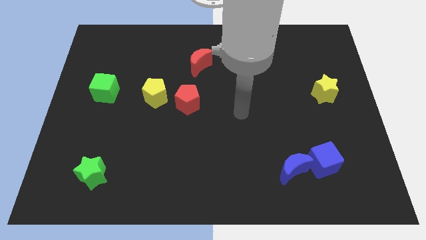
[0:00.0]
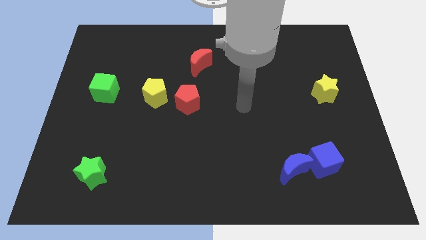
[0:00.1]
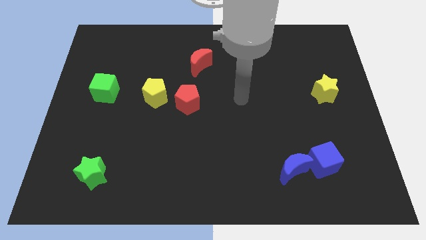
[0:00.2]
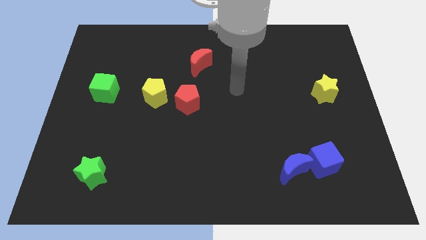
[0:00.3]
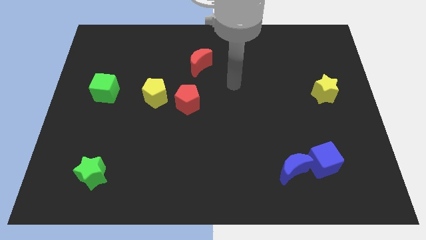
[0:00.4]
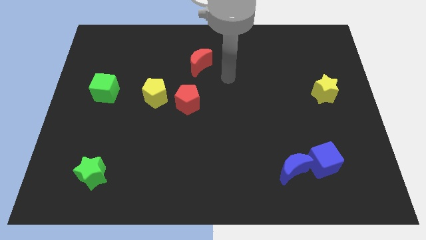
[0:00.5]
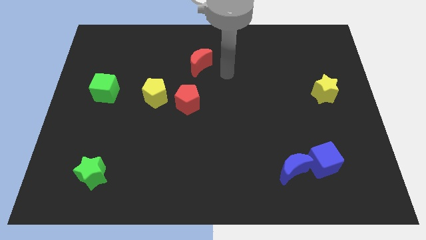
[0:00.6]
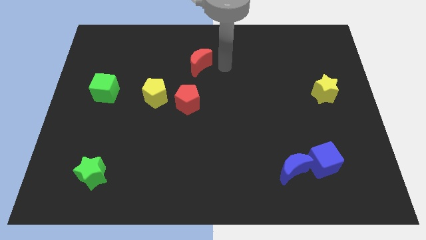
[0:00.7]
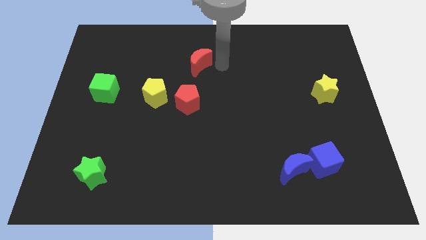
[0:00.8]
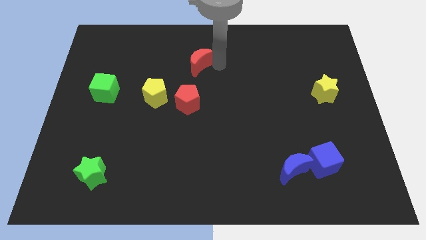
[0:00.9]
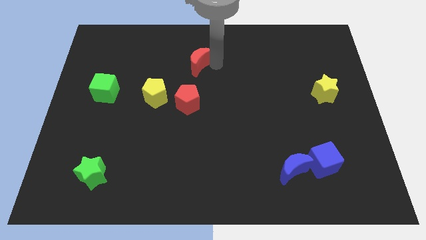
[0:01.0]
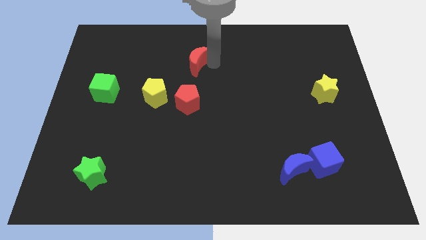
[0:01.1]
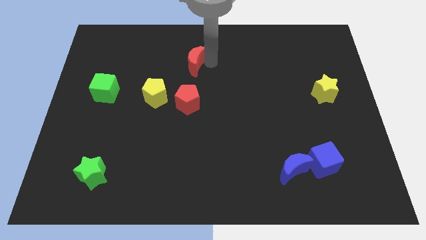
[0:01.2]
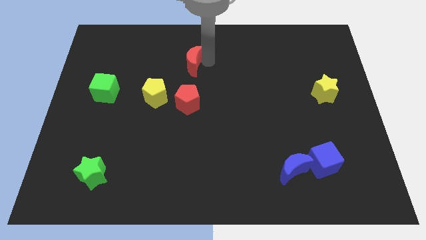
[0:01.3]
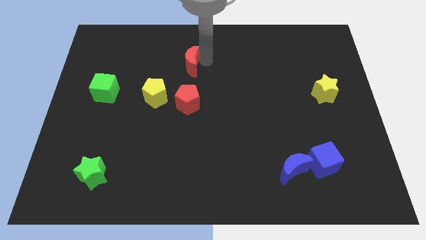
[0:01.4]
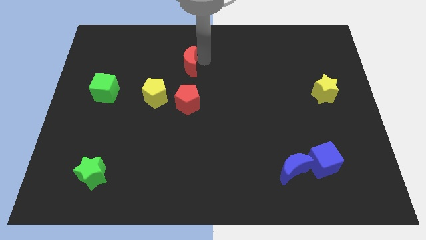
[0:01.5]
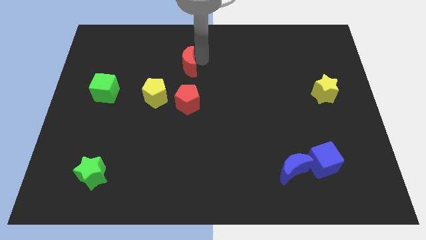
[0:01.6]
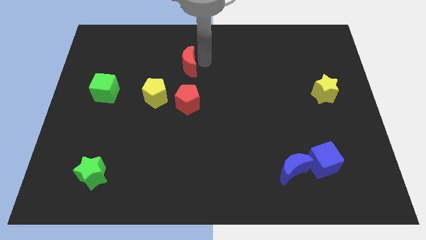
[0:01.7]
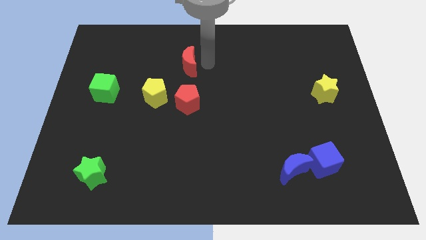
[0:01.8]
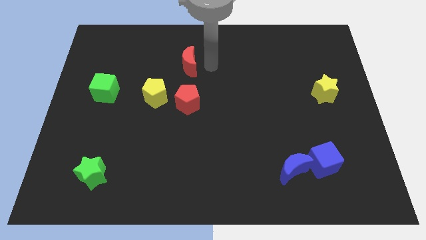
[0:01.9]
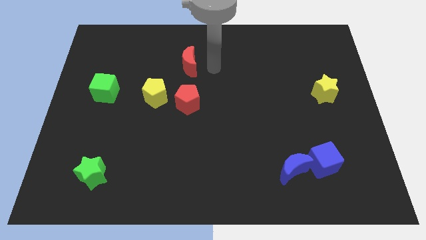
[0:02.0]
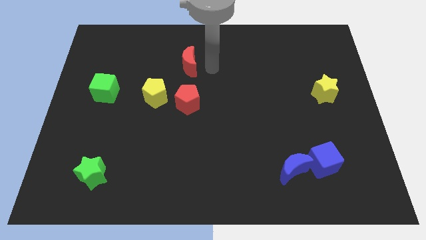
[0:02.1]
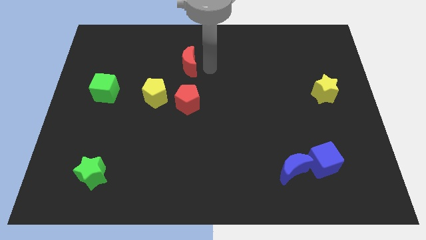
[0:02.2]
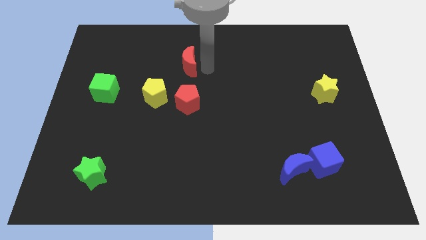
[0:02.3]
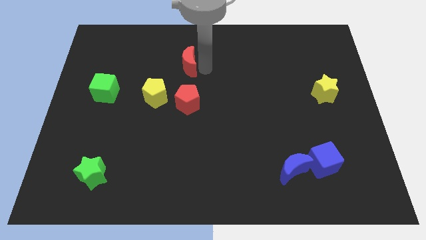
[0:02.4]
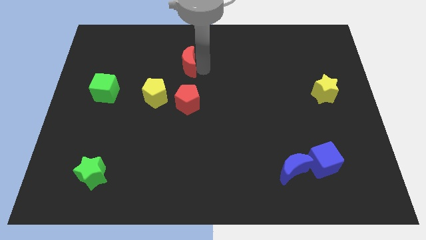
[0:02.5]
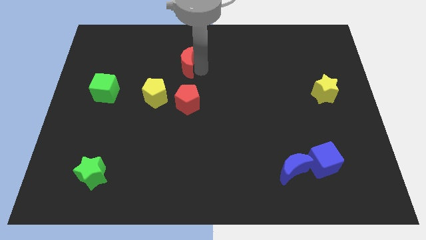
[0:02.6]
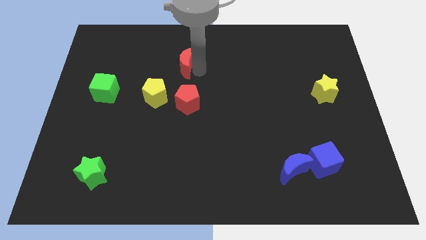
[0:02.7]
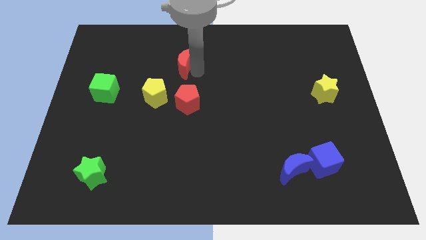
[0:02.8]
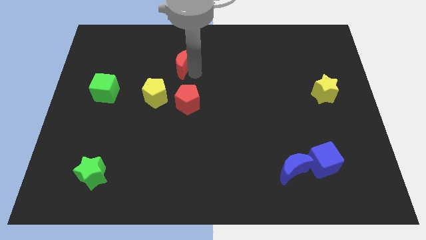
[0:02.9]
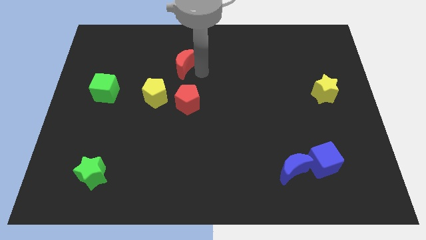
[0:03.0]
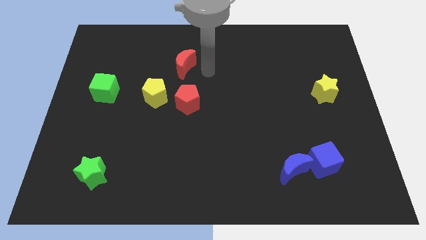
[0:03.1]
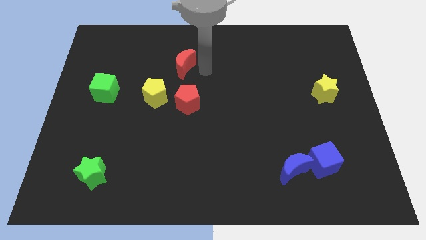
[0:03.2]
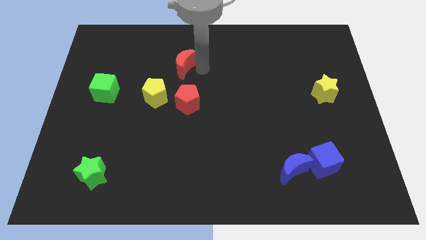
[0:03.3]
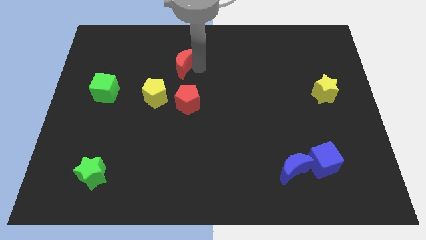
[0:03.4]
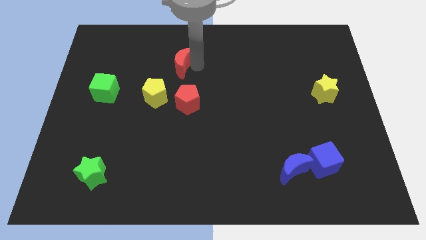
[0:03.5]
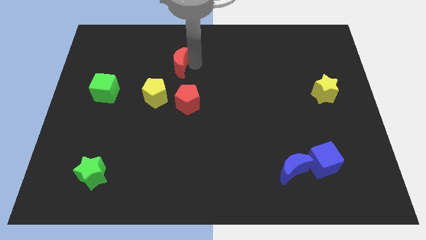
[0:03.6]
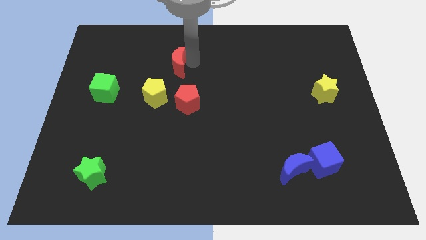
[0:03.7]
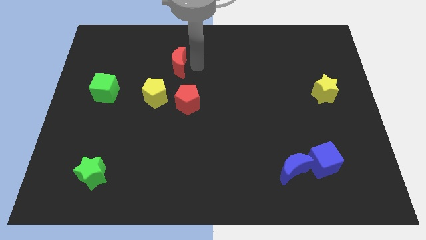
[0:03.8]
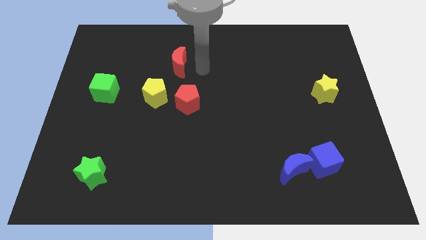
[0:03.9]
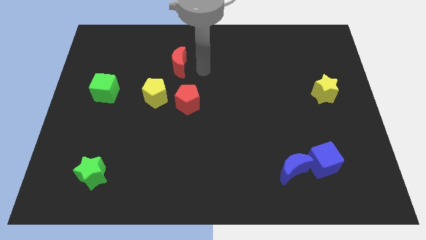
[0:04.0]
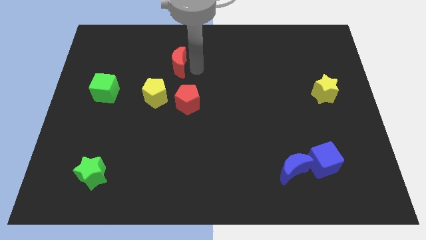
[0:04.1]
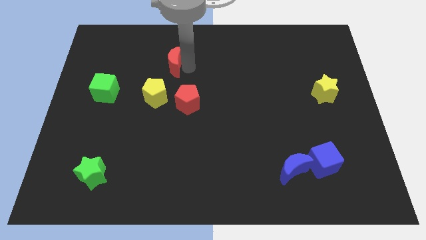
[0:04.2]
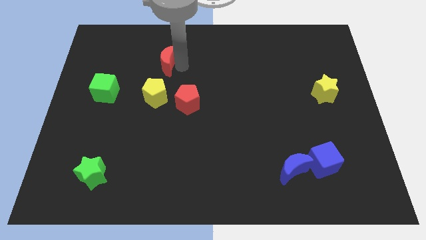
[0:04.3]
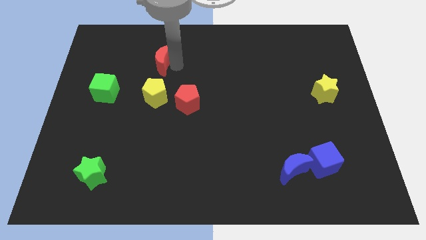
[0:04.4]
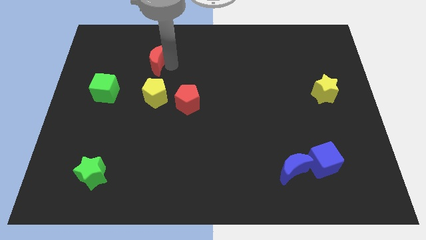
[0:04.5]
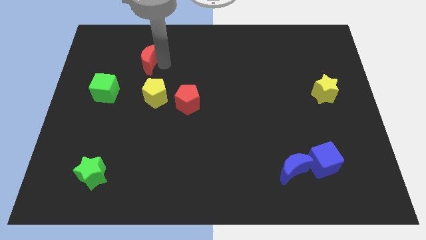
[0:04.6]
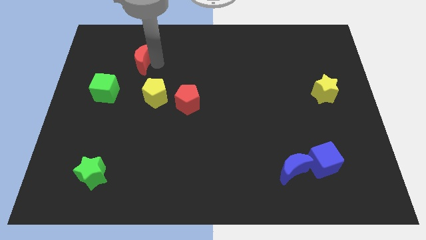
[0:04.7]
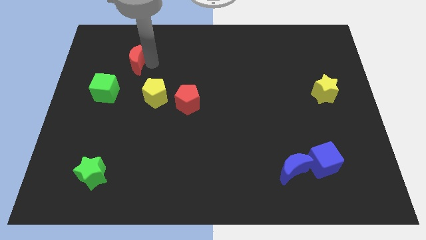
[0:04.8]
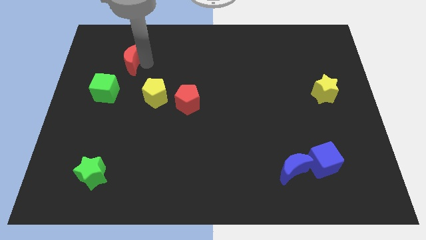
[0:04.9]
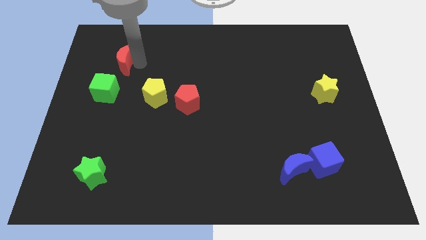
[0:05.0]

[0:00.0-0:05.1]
put the red moon above the green cube

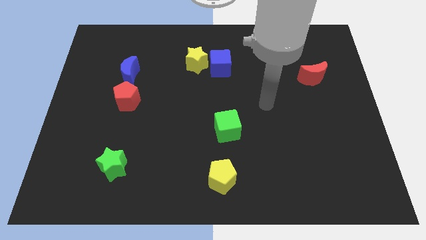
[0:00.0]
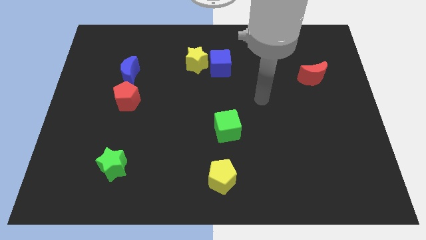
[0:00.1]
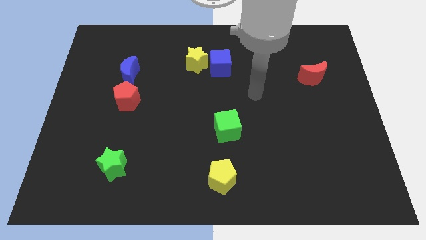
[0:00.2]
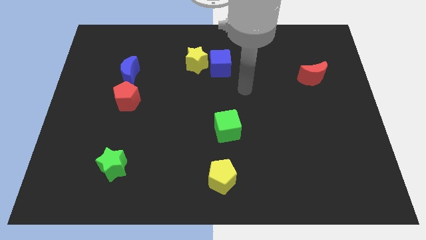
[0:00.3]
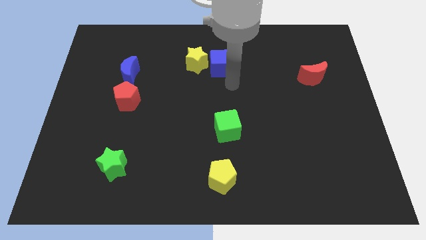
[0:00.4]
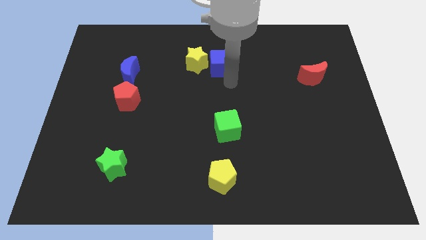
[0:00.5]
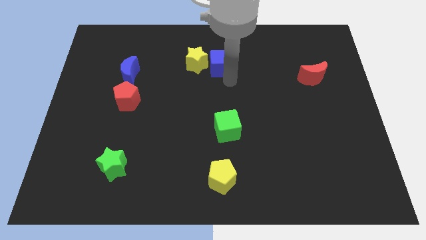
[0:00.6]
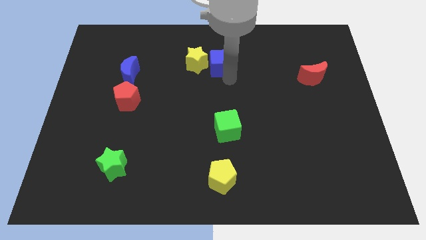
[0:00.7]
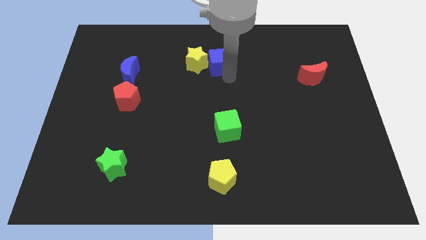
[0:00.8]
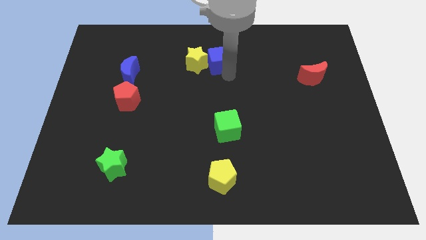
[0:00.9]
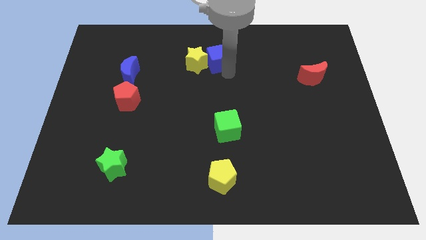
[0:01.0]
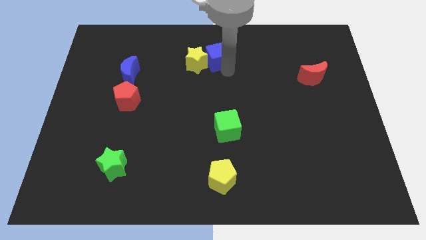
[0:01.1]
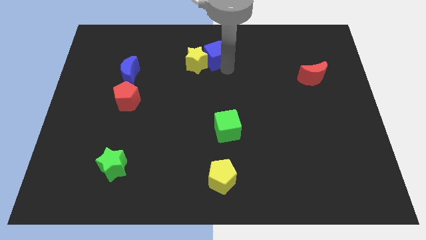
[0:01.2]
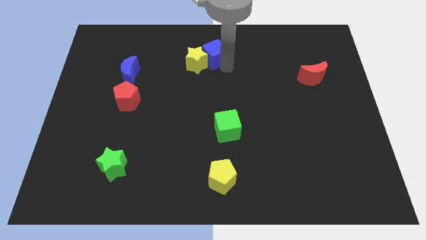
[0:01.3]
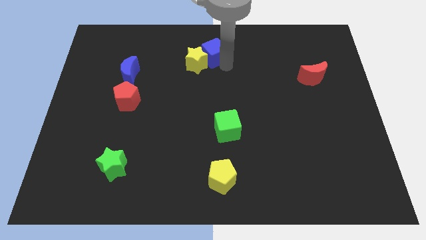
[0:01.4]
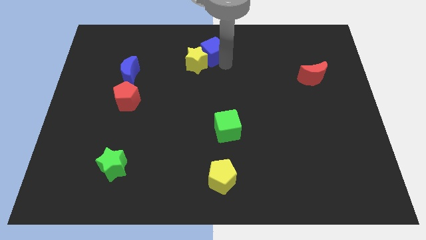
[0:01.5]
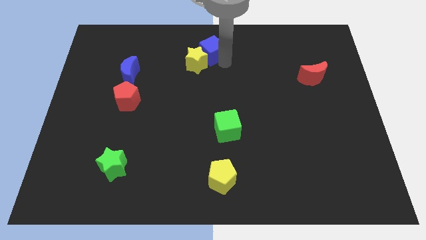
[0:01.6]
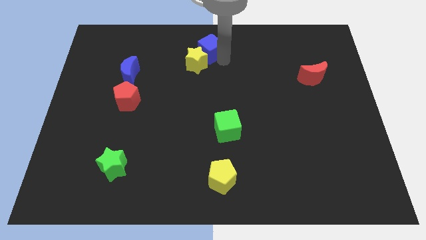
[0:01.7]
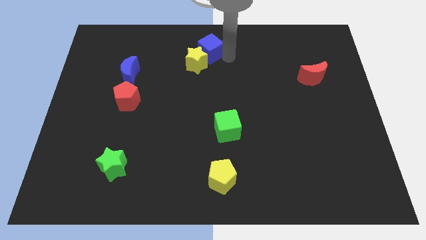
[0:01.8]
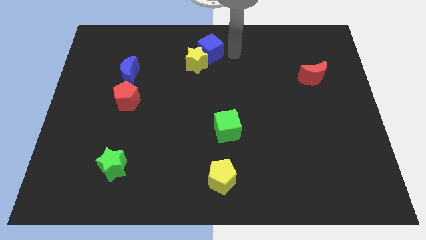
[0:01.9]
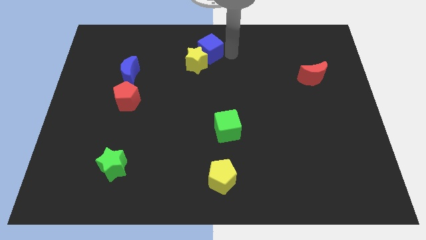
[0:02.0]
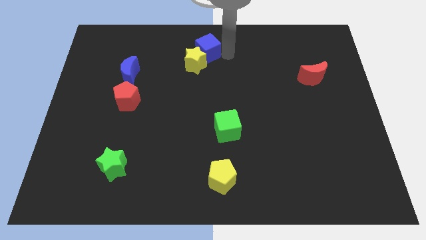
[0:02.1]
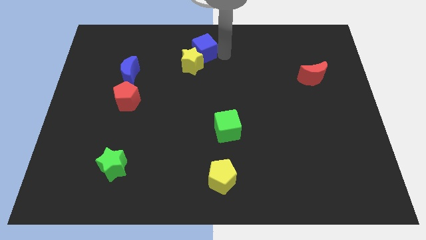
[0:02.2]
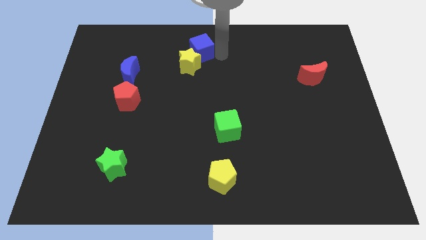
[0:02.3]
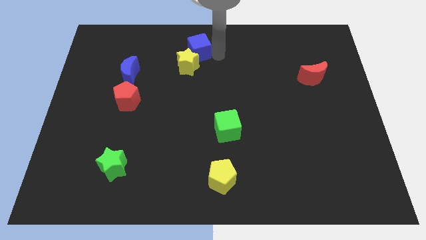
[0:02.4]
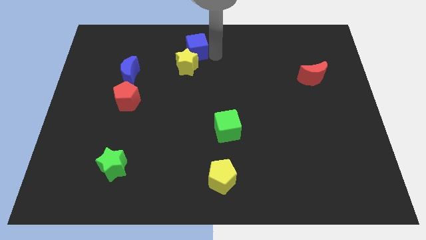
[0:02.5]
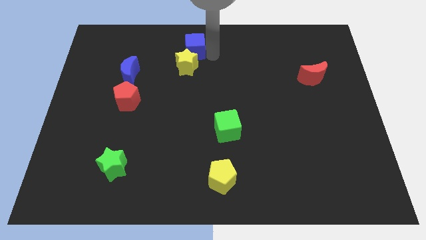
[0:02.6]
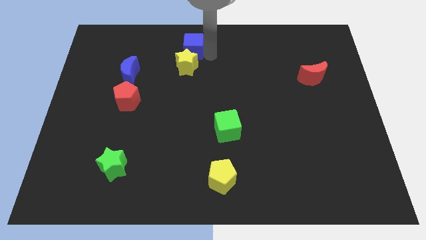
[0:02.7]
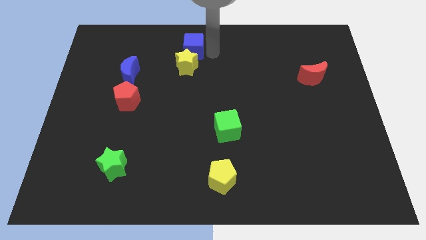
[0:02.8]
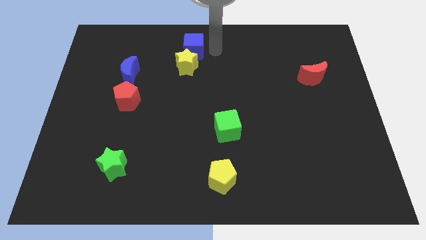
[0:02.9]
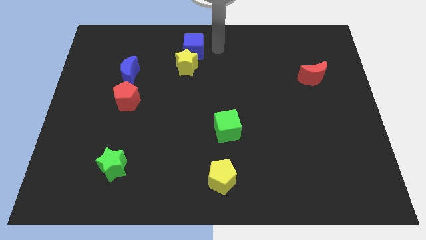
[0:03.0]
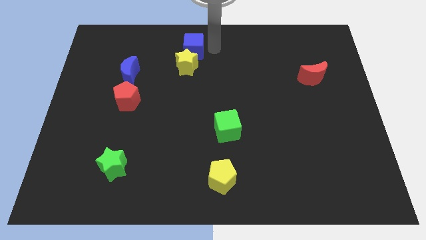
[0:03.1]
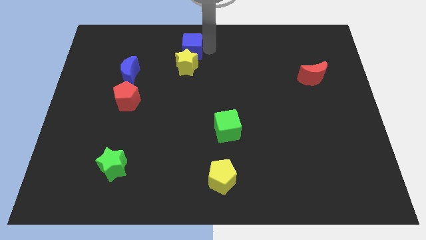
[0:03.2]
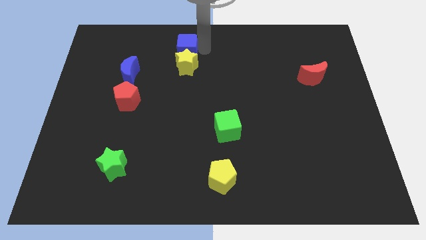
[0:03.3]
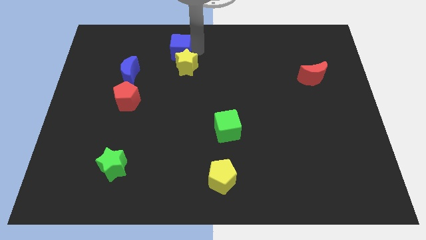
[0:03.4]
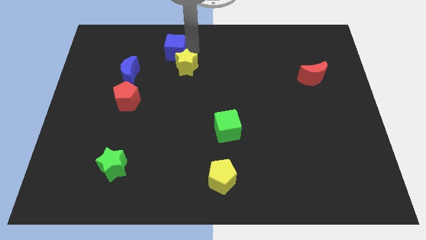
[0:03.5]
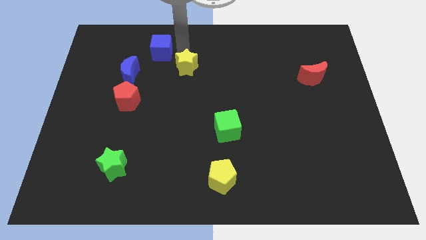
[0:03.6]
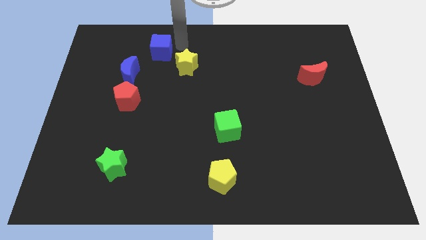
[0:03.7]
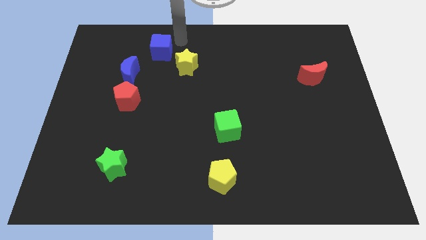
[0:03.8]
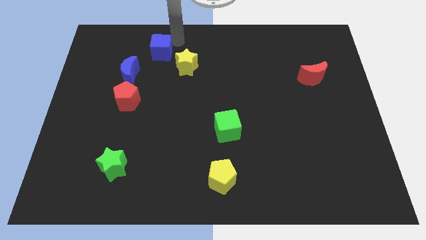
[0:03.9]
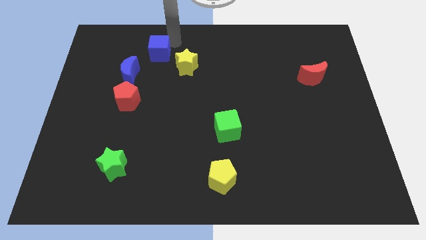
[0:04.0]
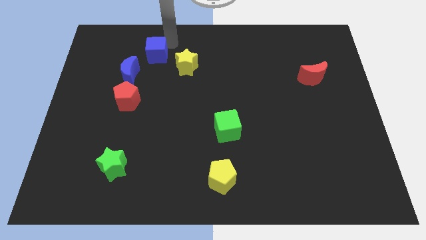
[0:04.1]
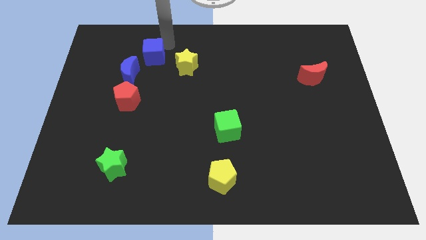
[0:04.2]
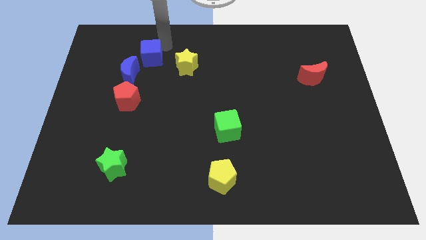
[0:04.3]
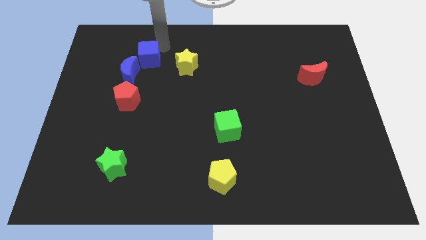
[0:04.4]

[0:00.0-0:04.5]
push the blue cube to the top of the red pentagon
